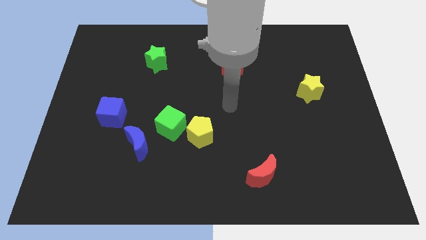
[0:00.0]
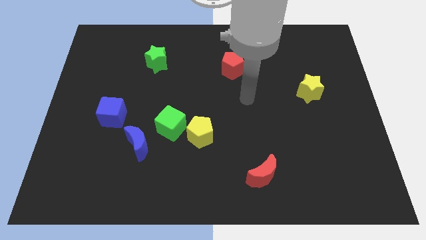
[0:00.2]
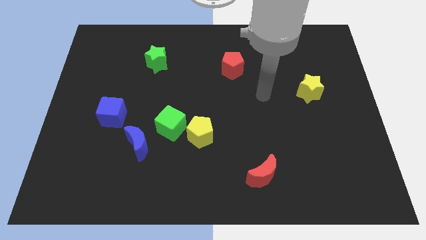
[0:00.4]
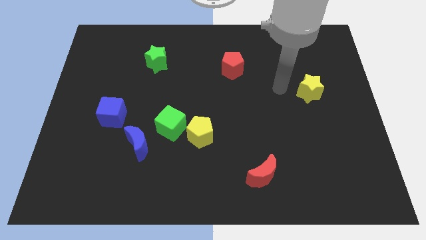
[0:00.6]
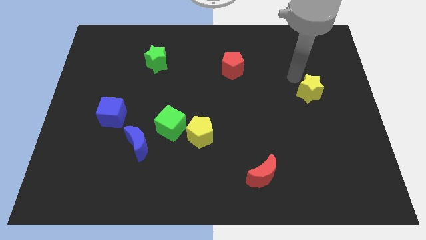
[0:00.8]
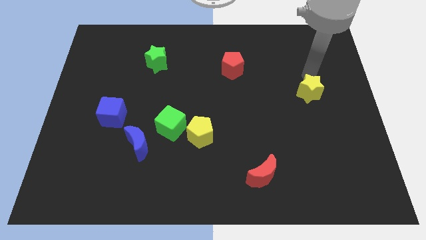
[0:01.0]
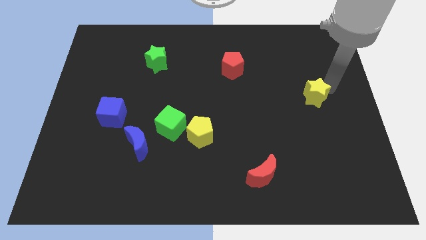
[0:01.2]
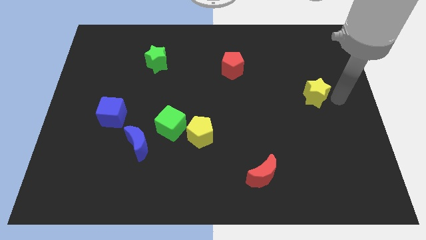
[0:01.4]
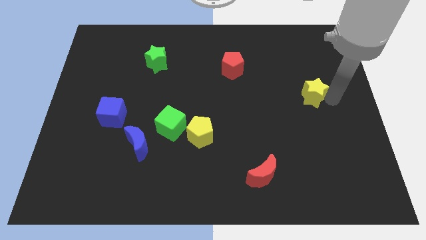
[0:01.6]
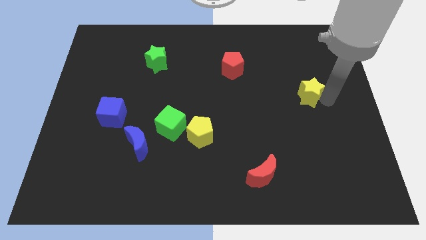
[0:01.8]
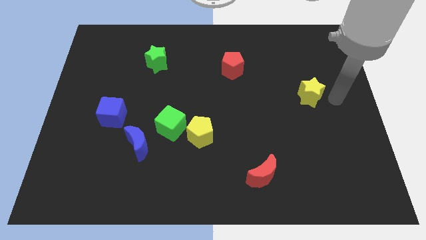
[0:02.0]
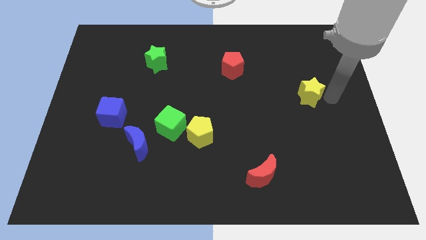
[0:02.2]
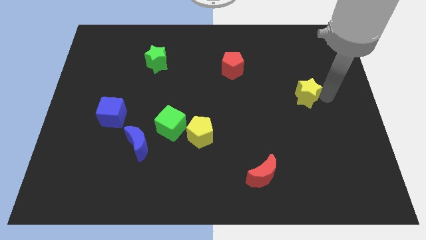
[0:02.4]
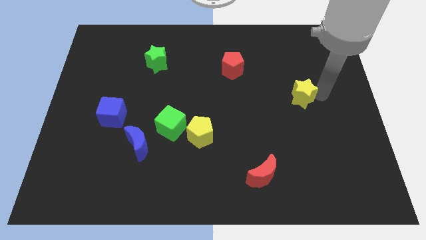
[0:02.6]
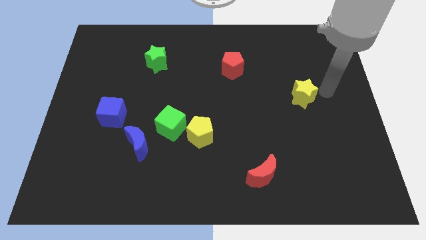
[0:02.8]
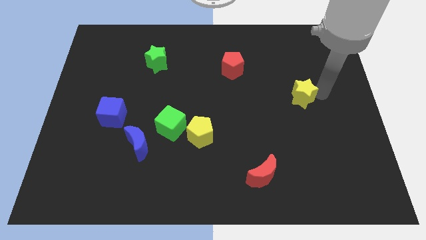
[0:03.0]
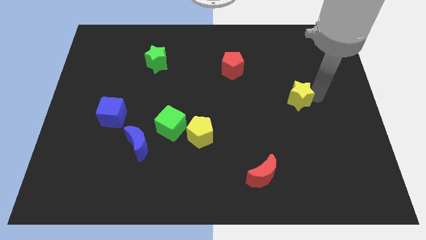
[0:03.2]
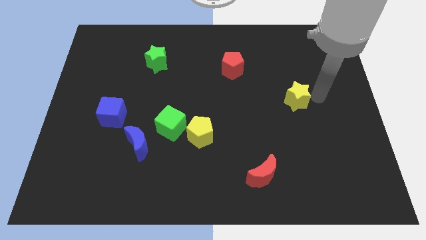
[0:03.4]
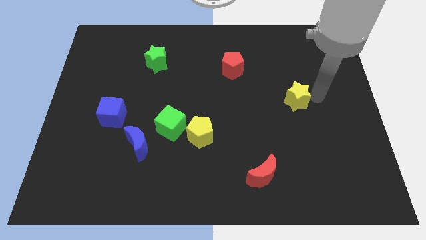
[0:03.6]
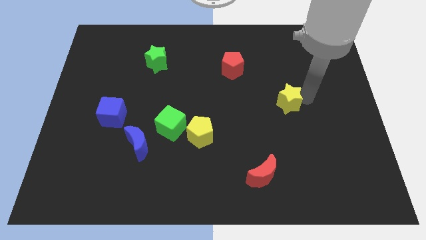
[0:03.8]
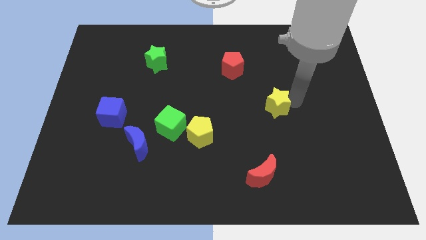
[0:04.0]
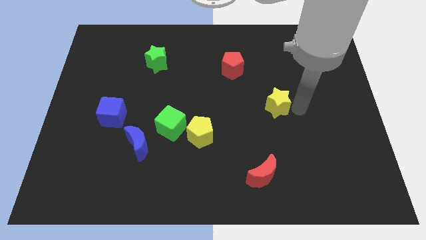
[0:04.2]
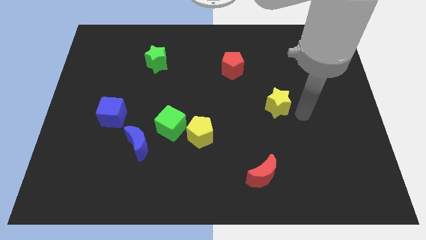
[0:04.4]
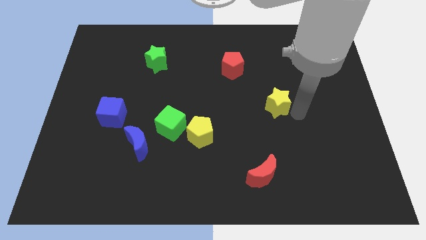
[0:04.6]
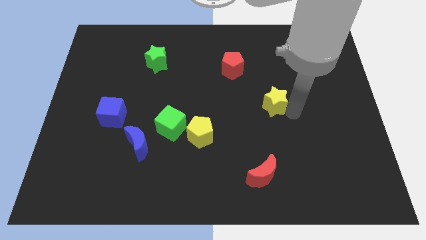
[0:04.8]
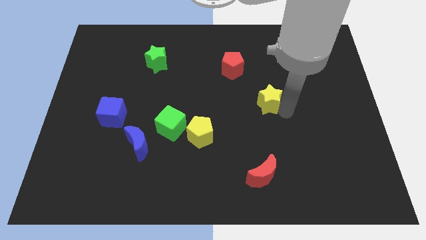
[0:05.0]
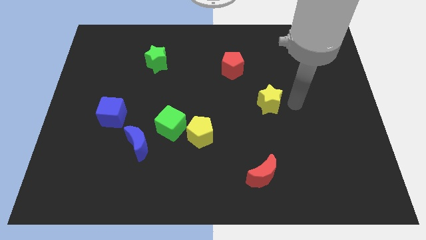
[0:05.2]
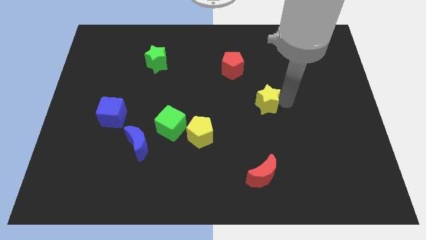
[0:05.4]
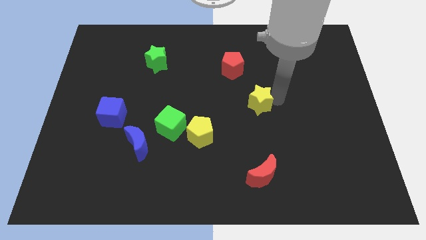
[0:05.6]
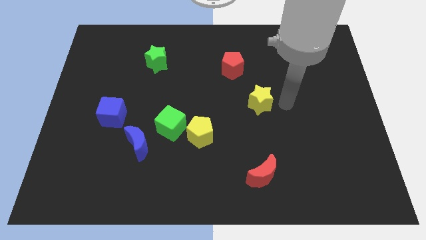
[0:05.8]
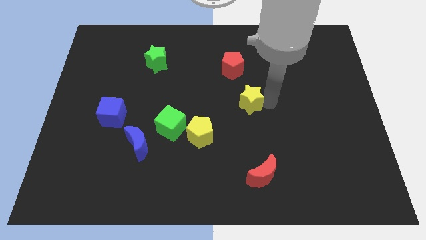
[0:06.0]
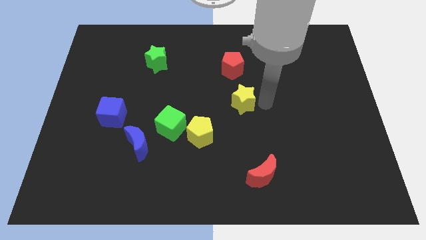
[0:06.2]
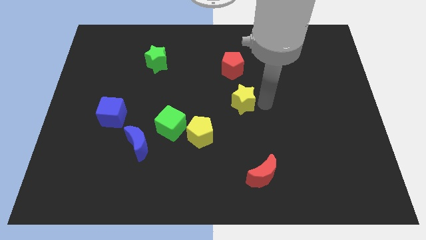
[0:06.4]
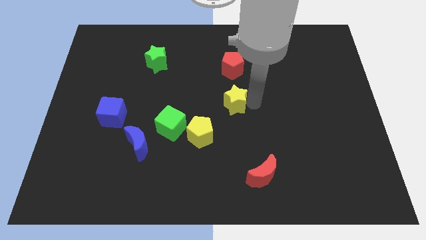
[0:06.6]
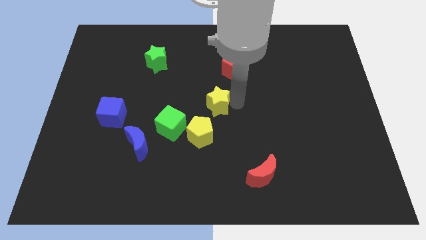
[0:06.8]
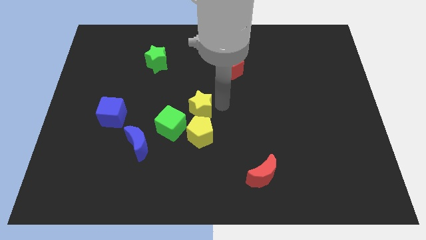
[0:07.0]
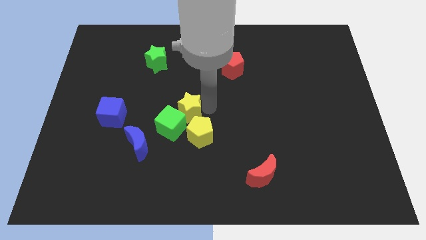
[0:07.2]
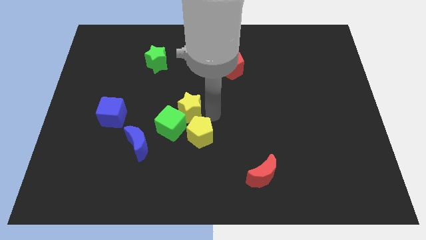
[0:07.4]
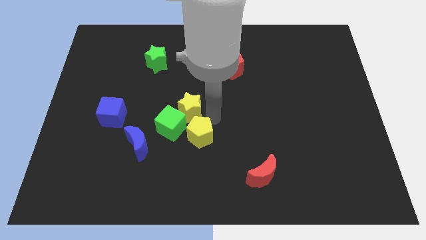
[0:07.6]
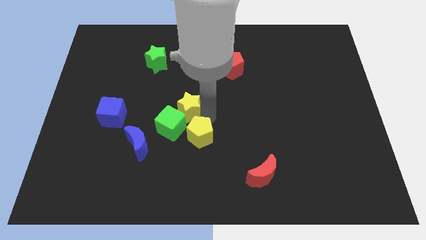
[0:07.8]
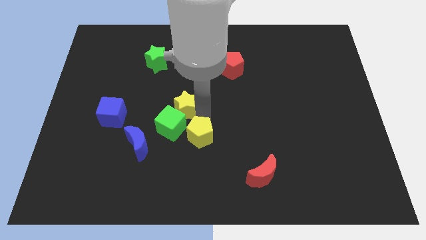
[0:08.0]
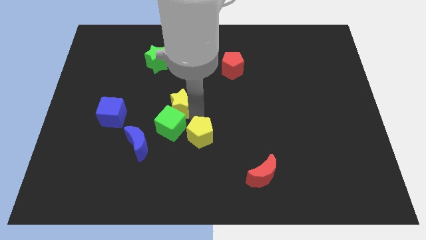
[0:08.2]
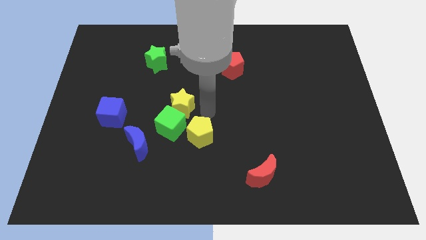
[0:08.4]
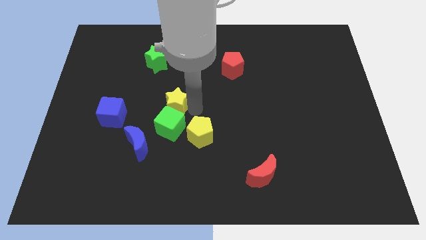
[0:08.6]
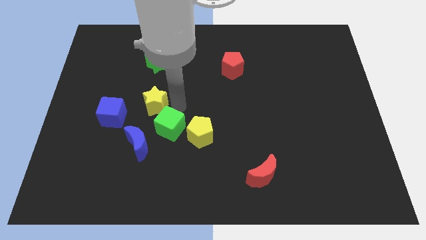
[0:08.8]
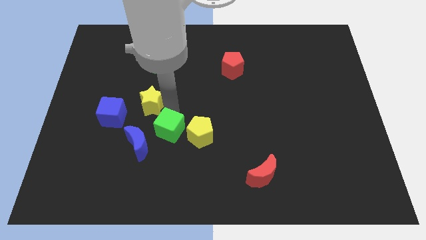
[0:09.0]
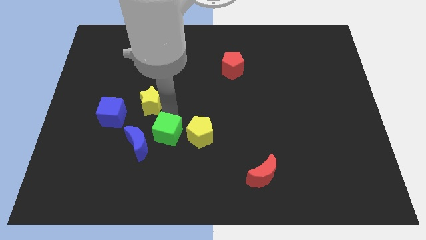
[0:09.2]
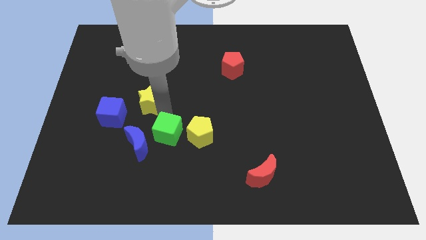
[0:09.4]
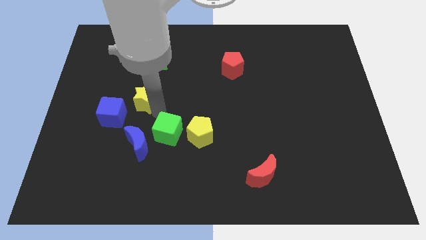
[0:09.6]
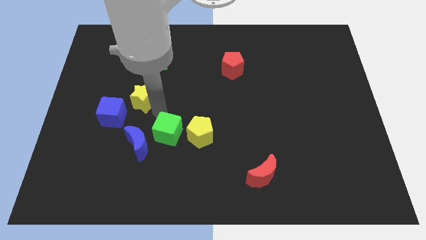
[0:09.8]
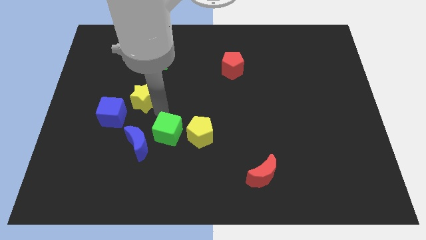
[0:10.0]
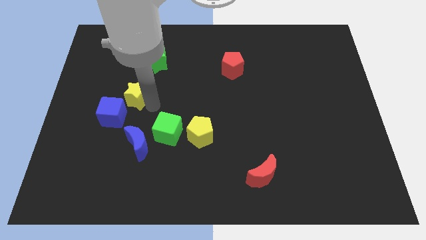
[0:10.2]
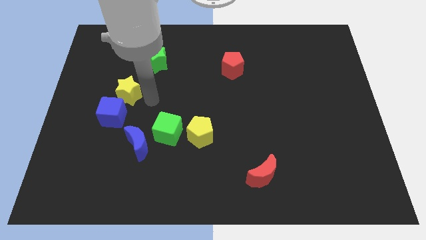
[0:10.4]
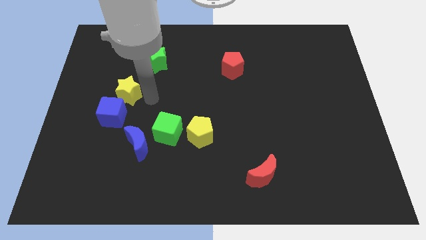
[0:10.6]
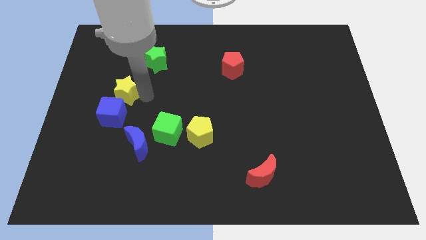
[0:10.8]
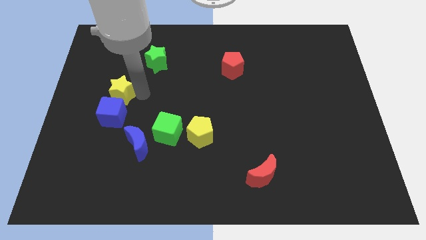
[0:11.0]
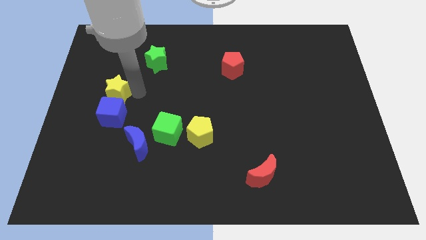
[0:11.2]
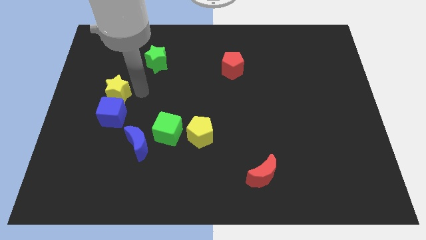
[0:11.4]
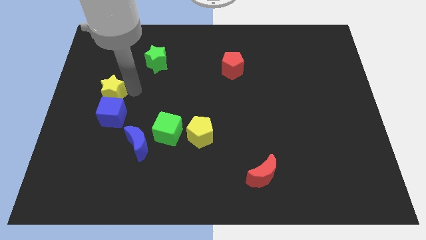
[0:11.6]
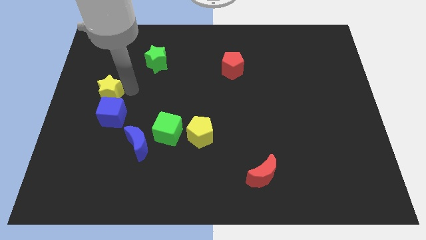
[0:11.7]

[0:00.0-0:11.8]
move the yellow star to the left side of the board
